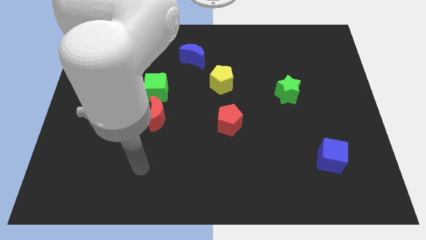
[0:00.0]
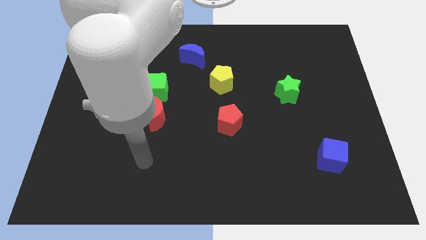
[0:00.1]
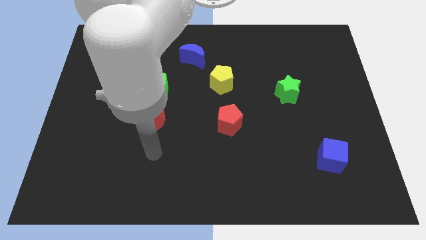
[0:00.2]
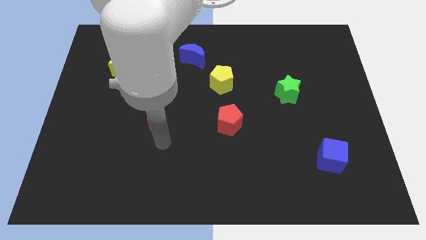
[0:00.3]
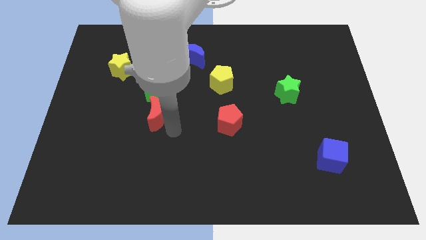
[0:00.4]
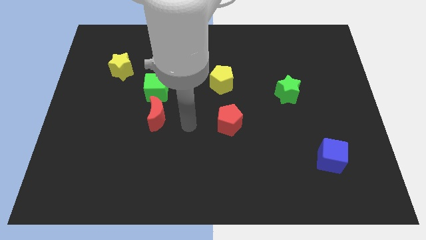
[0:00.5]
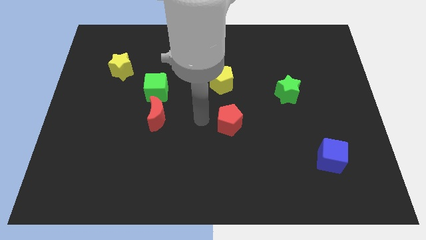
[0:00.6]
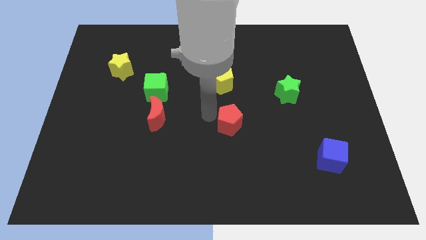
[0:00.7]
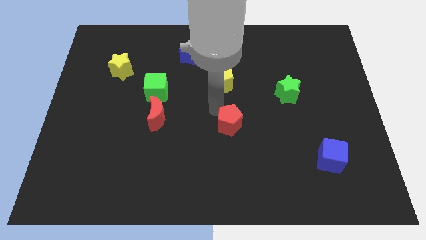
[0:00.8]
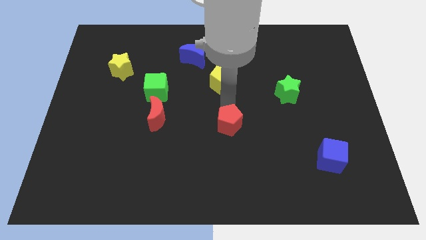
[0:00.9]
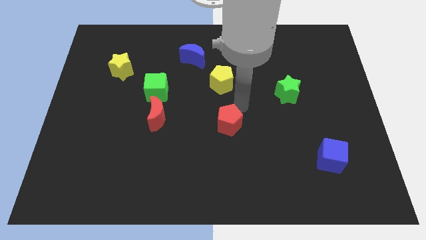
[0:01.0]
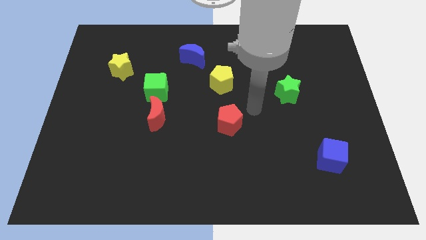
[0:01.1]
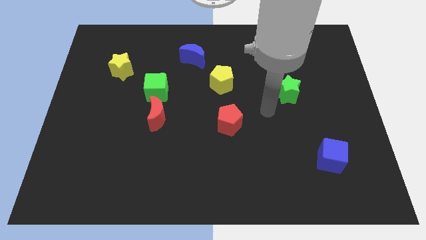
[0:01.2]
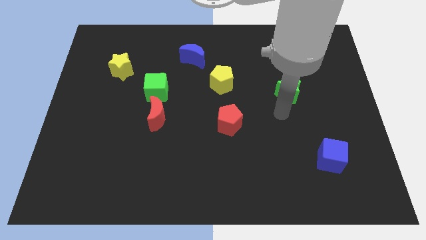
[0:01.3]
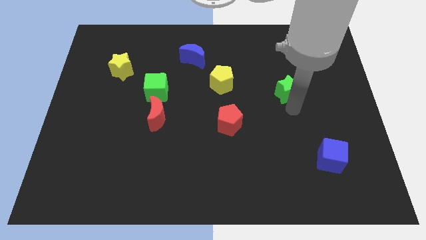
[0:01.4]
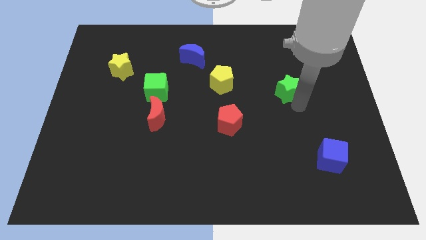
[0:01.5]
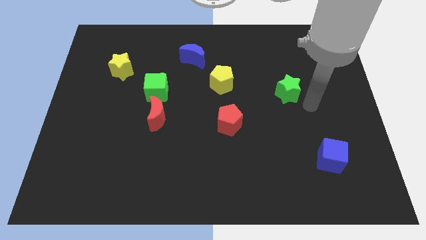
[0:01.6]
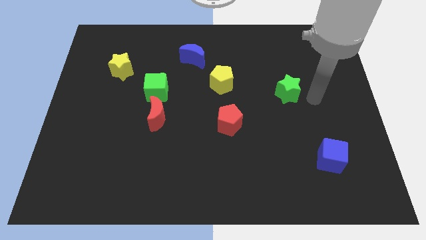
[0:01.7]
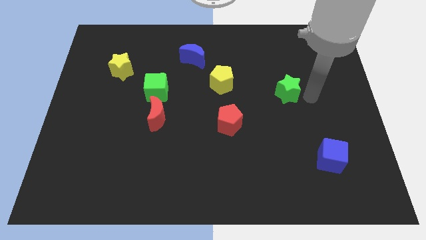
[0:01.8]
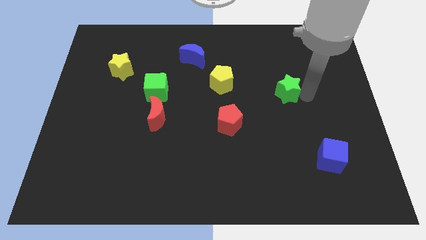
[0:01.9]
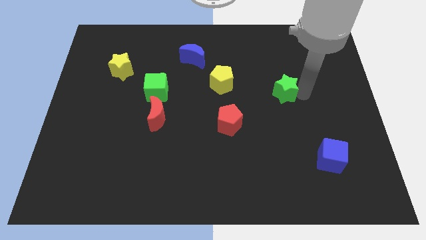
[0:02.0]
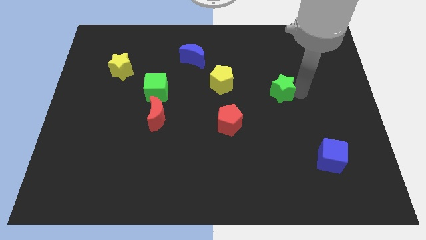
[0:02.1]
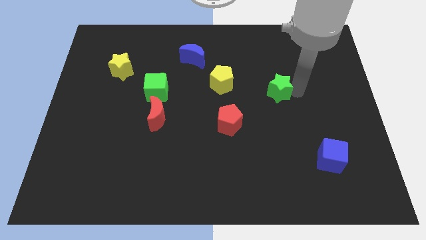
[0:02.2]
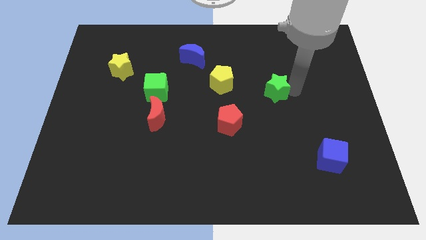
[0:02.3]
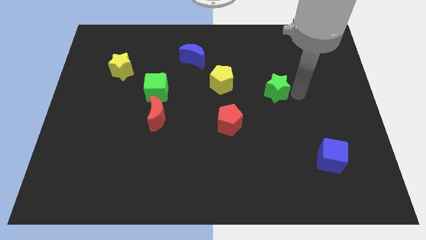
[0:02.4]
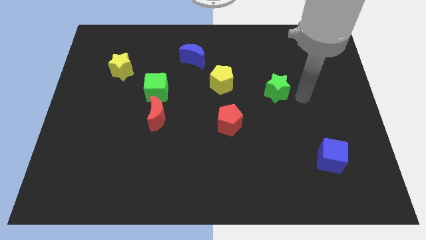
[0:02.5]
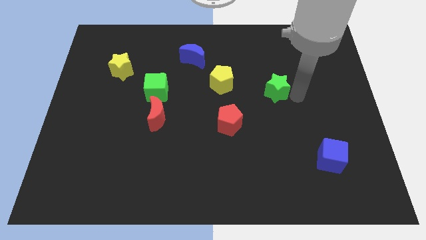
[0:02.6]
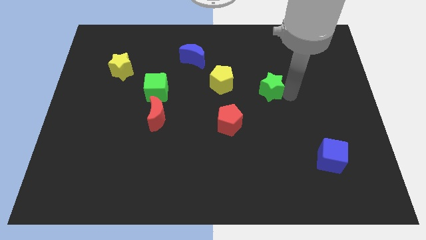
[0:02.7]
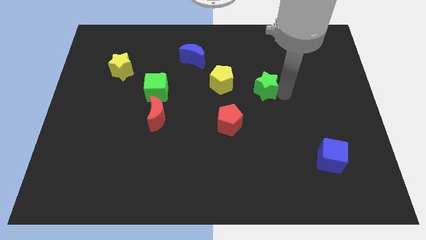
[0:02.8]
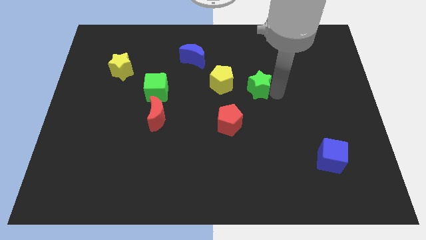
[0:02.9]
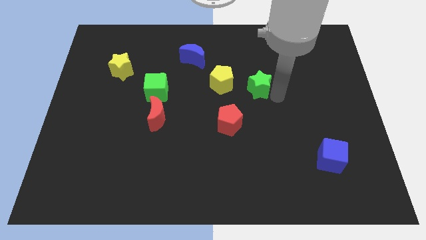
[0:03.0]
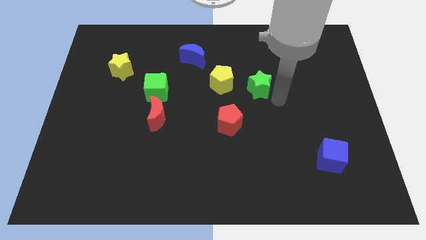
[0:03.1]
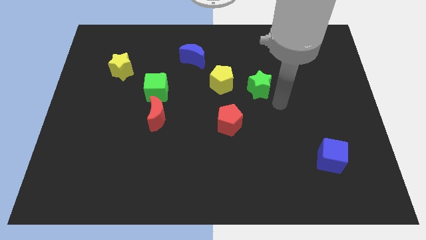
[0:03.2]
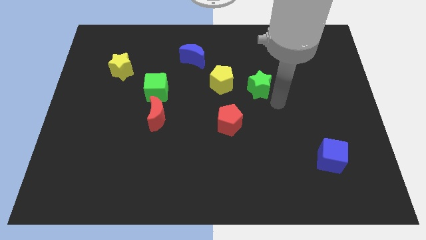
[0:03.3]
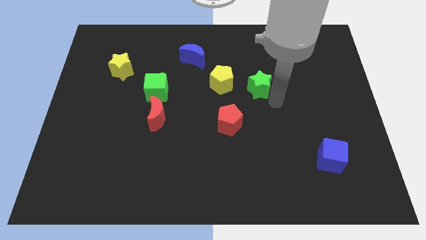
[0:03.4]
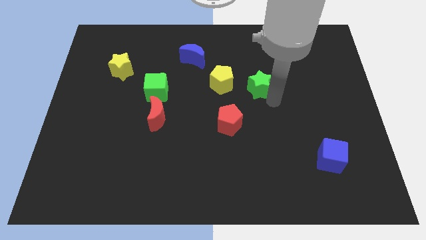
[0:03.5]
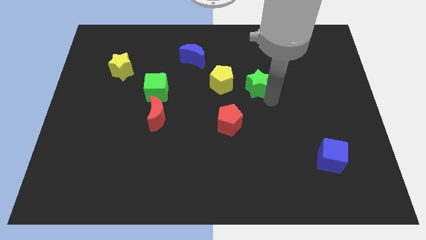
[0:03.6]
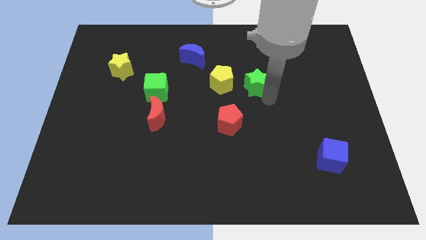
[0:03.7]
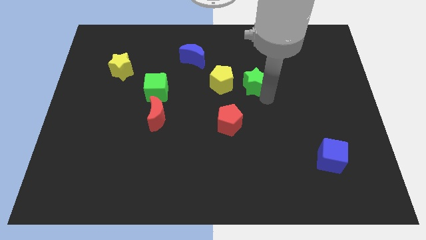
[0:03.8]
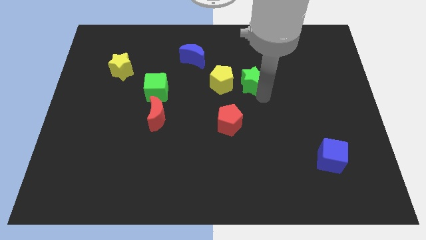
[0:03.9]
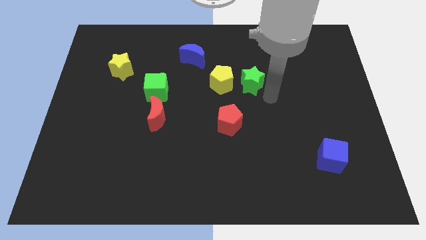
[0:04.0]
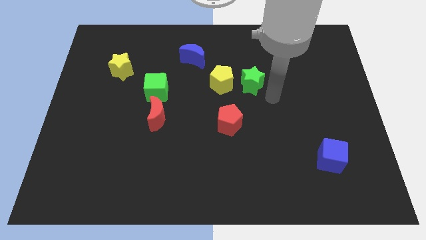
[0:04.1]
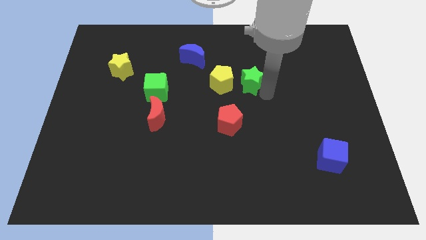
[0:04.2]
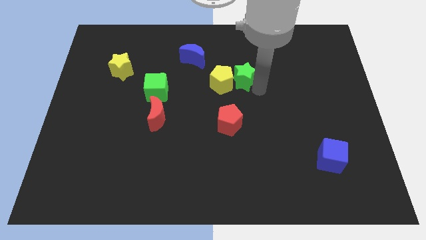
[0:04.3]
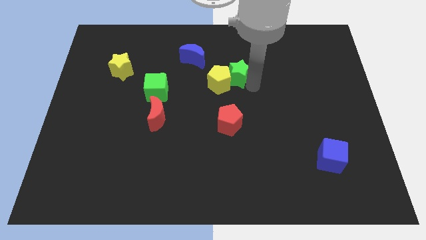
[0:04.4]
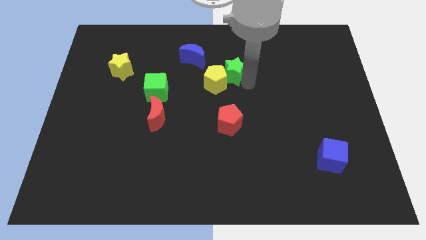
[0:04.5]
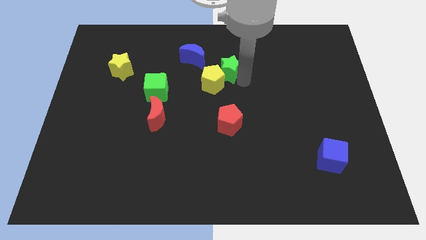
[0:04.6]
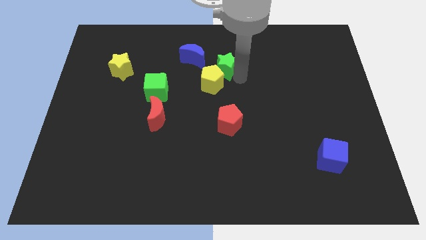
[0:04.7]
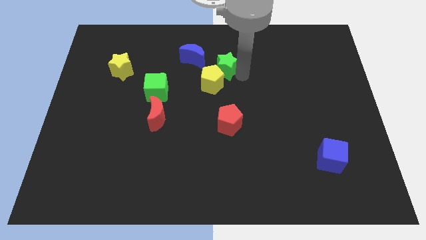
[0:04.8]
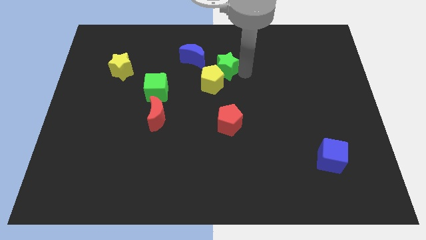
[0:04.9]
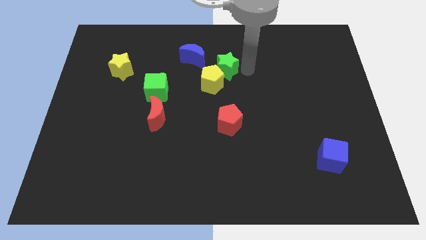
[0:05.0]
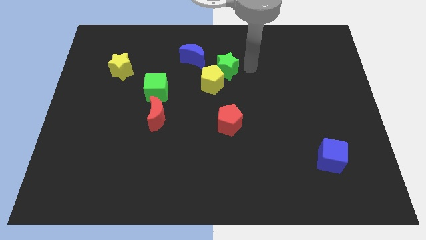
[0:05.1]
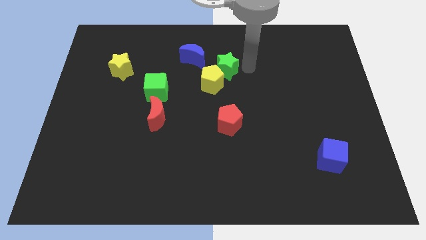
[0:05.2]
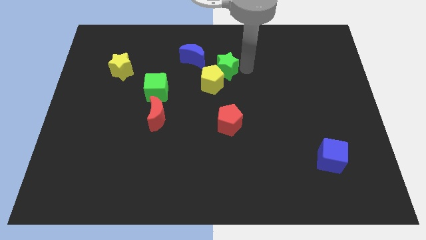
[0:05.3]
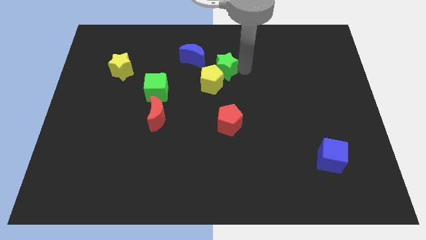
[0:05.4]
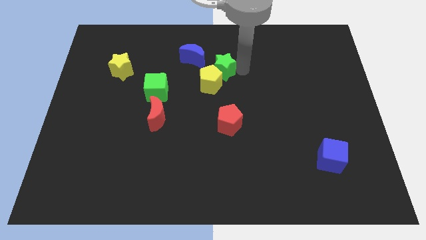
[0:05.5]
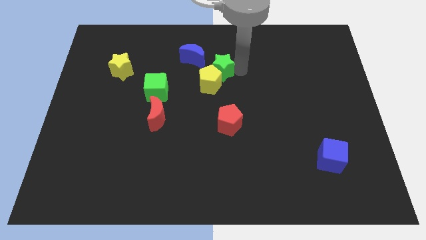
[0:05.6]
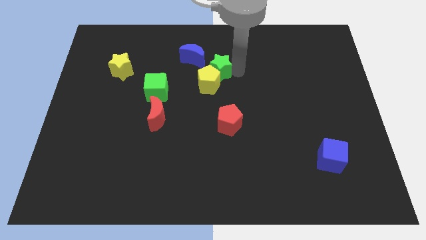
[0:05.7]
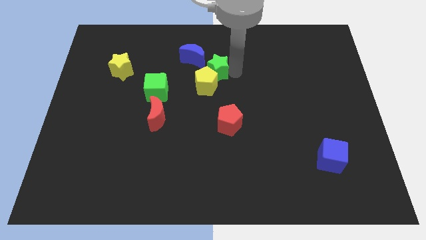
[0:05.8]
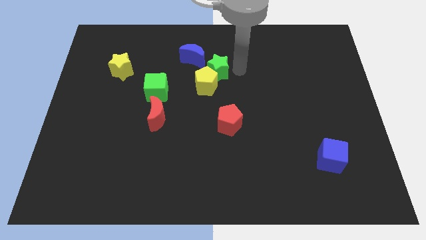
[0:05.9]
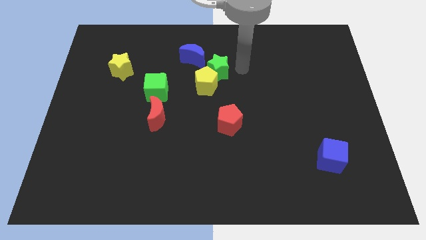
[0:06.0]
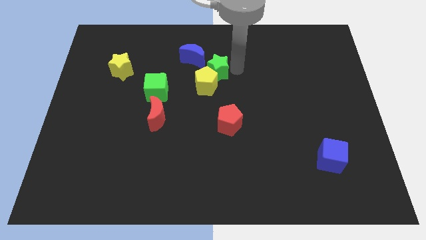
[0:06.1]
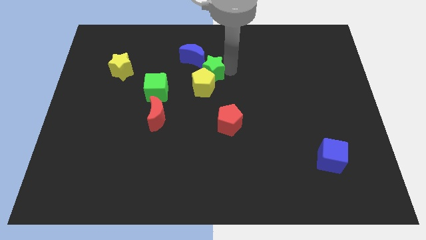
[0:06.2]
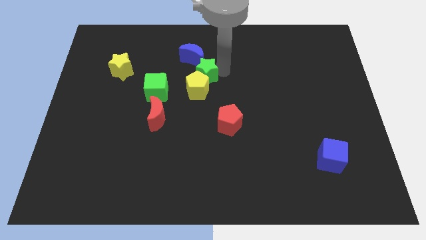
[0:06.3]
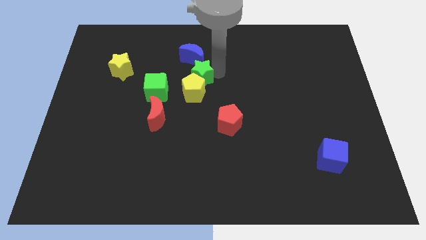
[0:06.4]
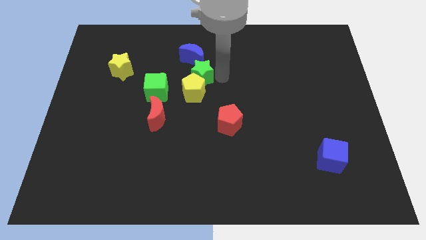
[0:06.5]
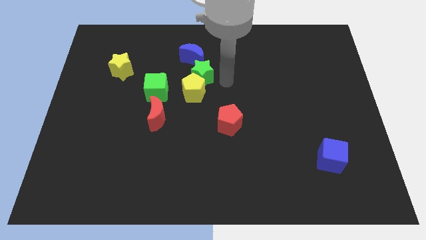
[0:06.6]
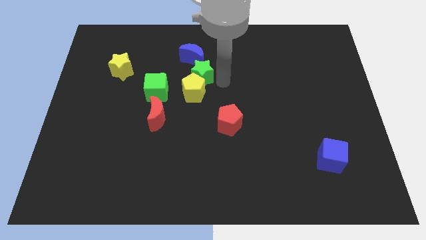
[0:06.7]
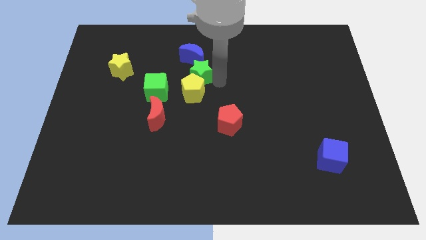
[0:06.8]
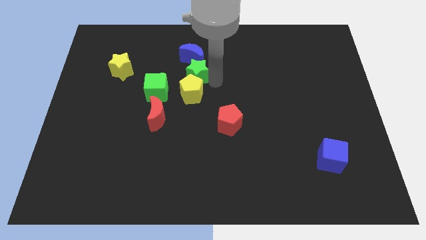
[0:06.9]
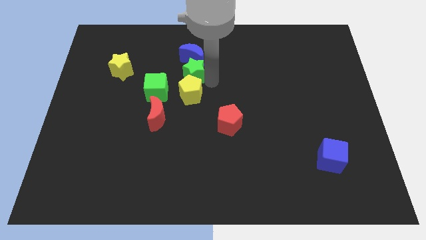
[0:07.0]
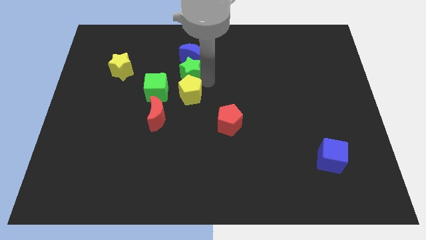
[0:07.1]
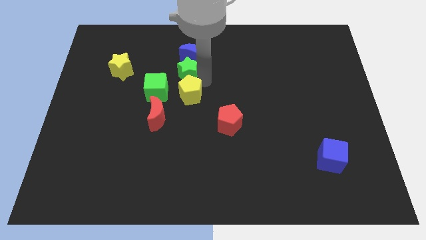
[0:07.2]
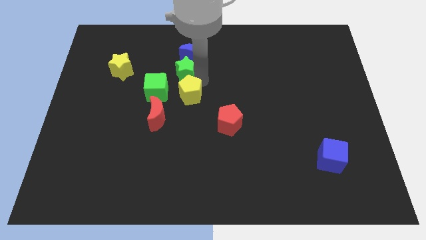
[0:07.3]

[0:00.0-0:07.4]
slide the green star to the right of the yellow star
